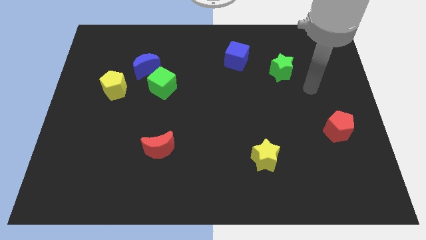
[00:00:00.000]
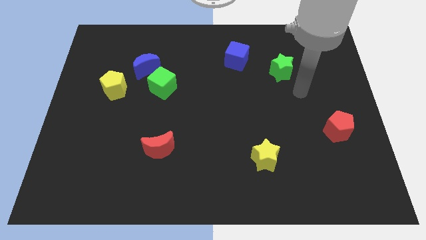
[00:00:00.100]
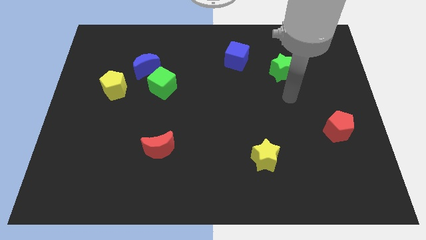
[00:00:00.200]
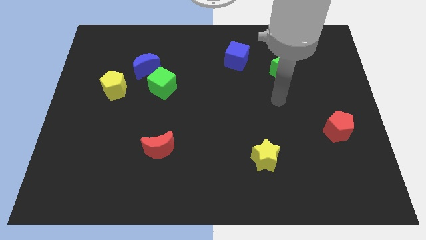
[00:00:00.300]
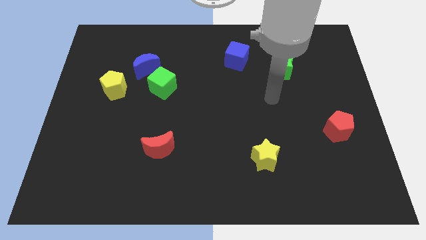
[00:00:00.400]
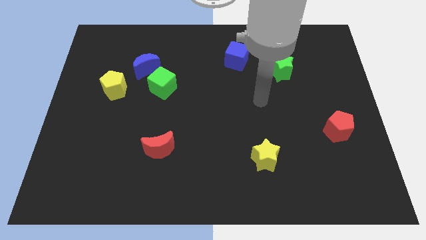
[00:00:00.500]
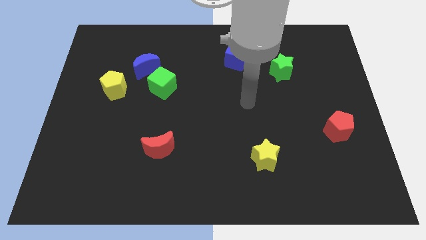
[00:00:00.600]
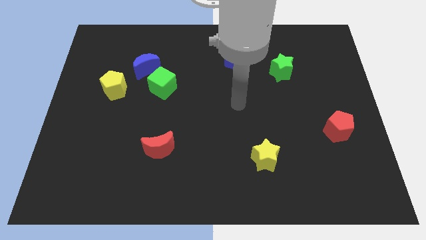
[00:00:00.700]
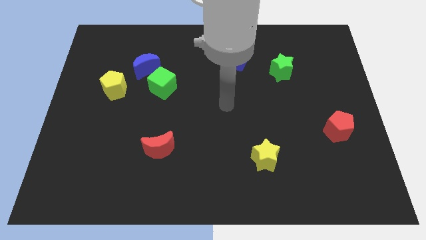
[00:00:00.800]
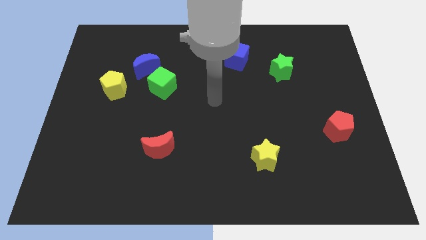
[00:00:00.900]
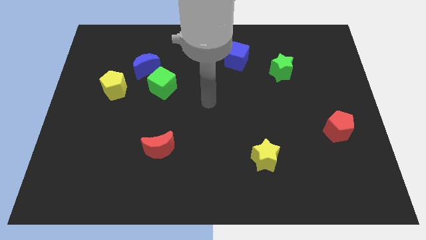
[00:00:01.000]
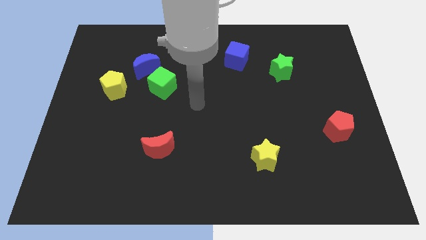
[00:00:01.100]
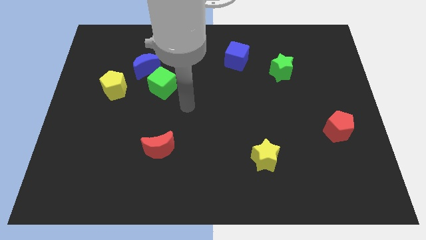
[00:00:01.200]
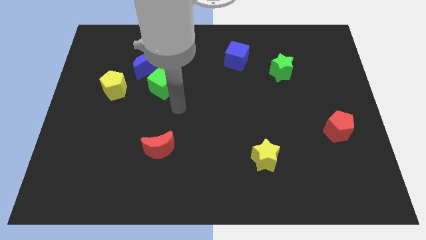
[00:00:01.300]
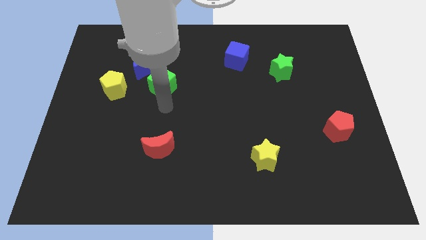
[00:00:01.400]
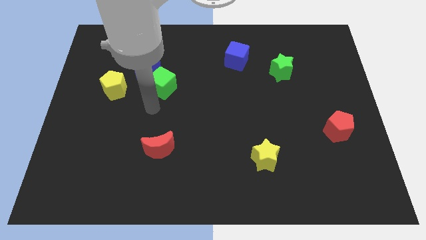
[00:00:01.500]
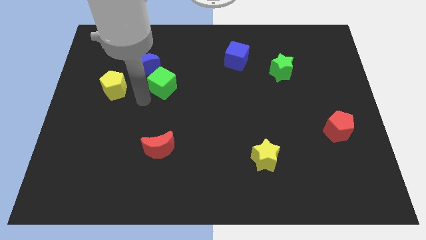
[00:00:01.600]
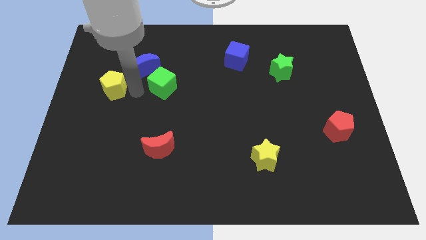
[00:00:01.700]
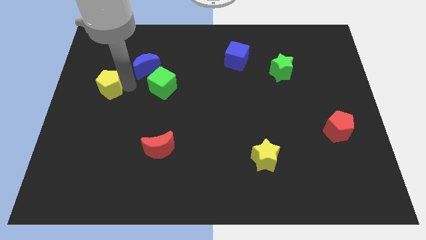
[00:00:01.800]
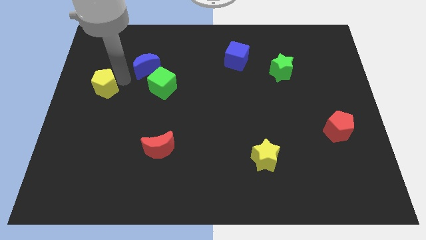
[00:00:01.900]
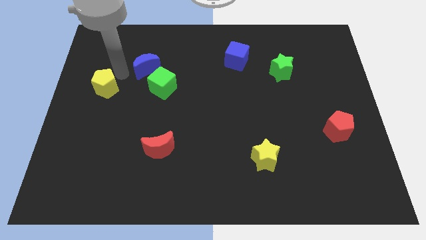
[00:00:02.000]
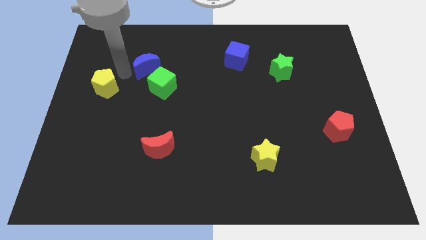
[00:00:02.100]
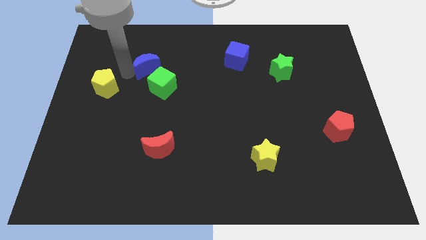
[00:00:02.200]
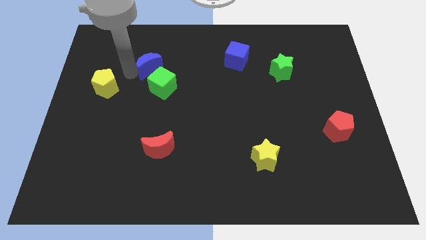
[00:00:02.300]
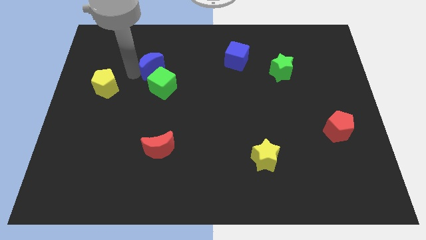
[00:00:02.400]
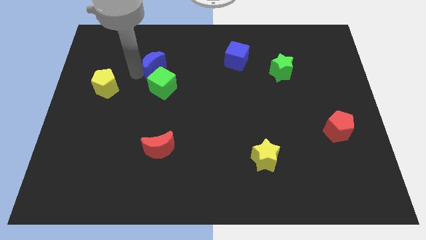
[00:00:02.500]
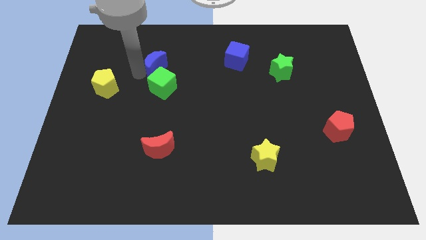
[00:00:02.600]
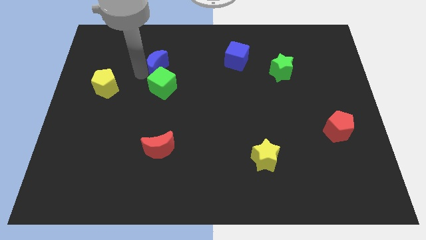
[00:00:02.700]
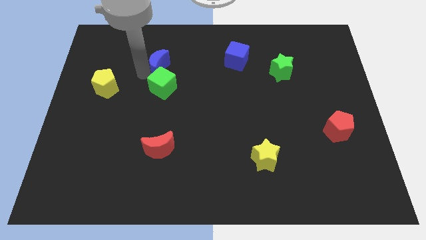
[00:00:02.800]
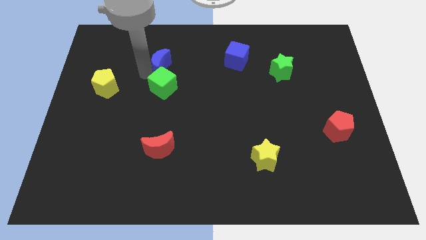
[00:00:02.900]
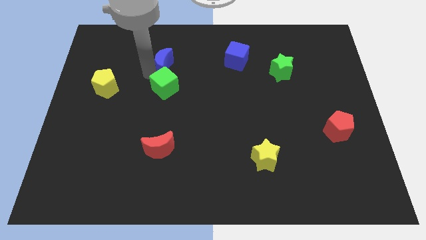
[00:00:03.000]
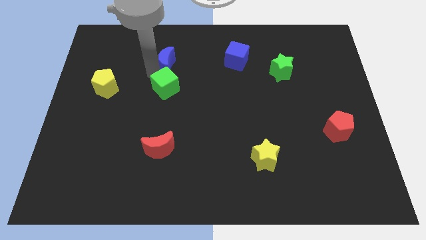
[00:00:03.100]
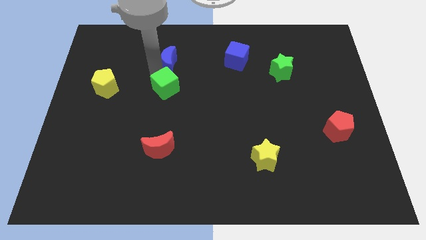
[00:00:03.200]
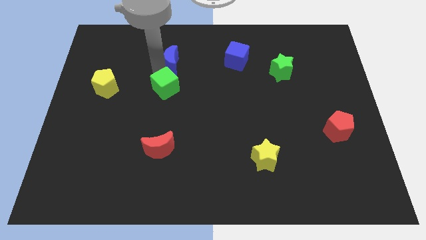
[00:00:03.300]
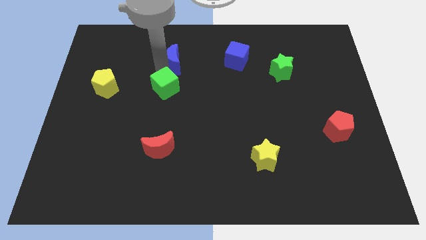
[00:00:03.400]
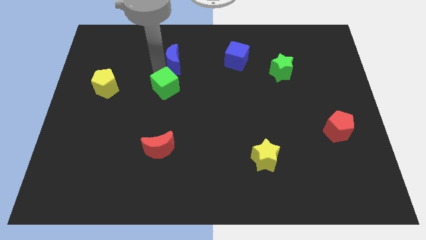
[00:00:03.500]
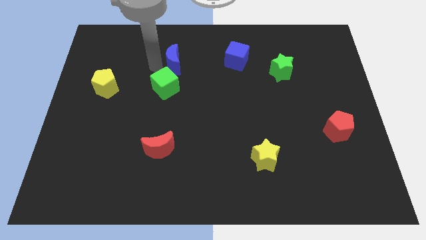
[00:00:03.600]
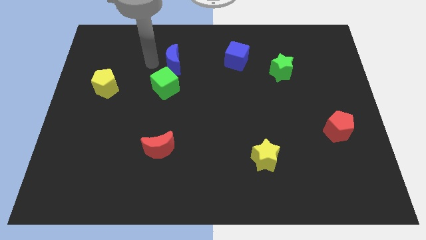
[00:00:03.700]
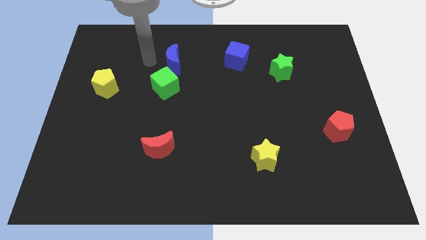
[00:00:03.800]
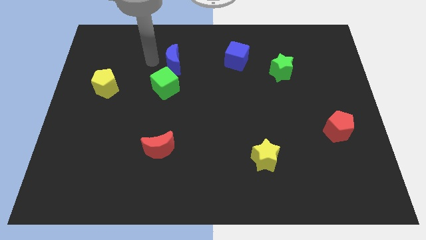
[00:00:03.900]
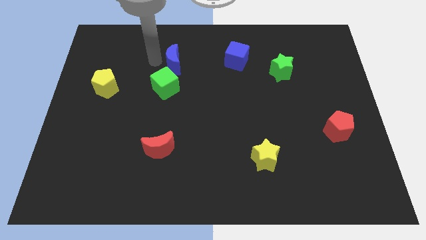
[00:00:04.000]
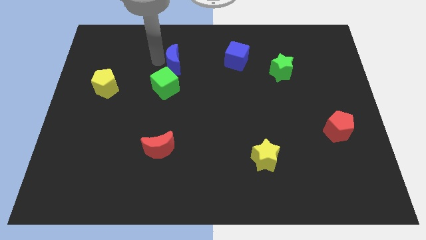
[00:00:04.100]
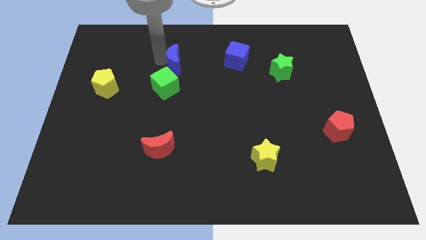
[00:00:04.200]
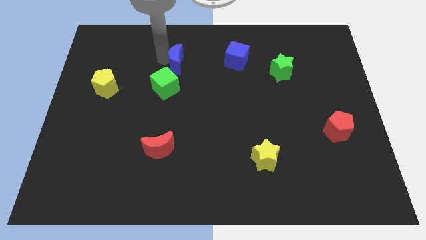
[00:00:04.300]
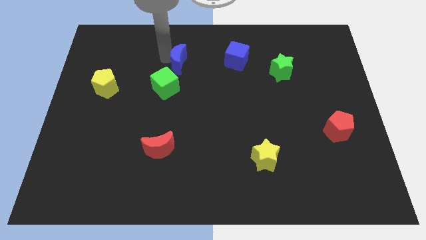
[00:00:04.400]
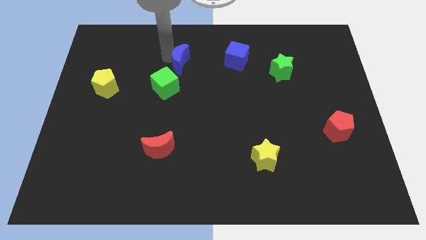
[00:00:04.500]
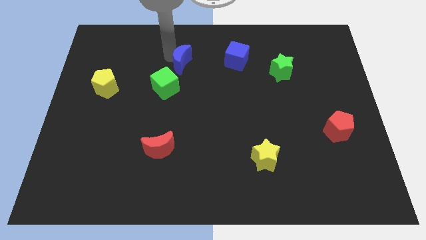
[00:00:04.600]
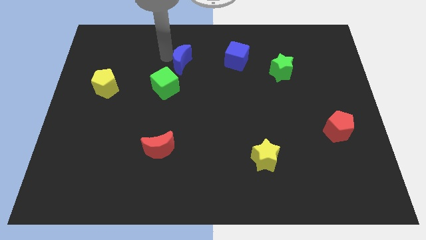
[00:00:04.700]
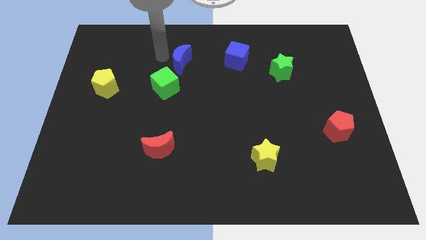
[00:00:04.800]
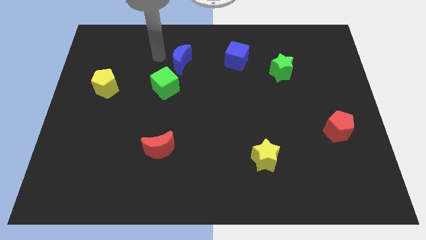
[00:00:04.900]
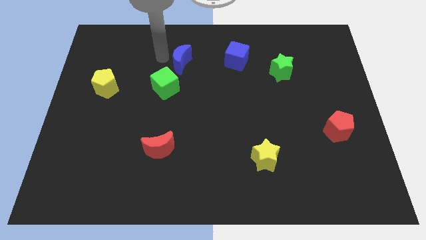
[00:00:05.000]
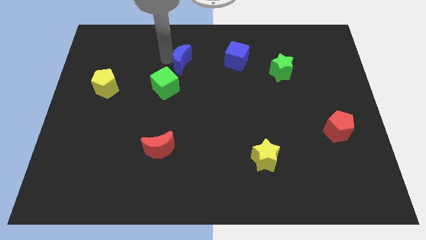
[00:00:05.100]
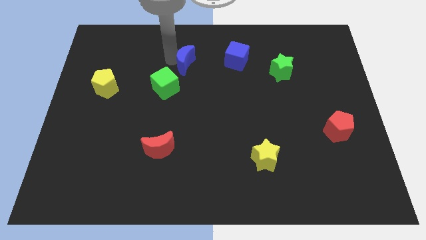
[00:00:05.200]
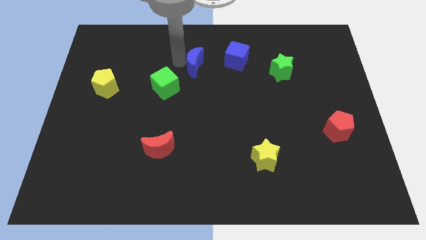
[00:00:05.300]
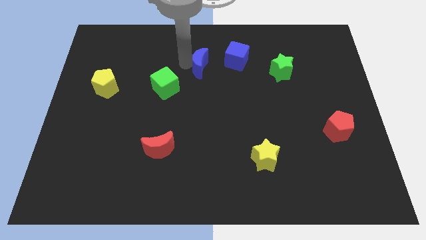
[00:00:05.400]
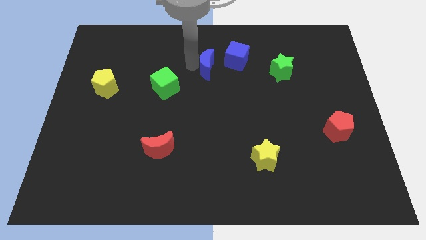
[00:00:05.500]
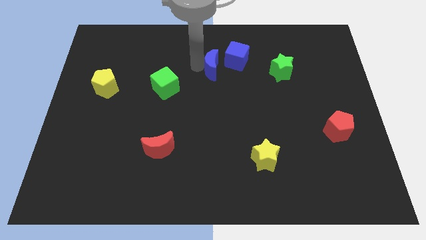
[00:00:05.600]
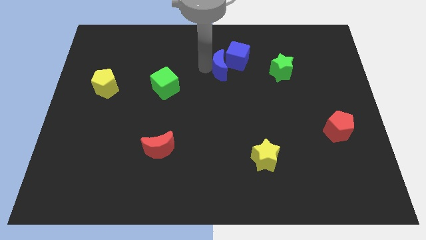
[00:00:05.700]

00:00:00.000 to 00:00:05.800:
put the blue moon left of the green star

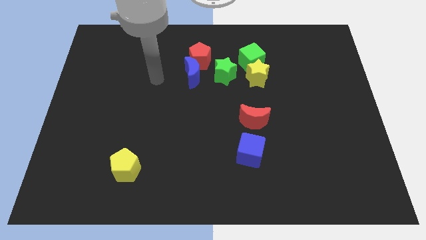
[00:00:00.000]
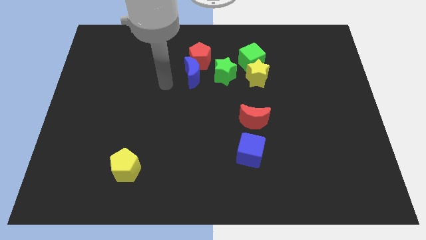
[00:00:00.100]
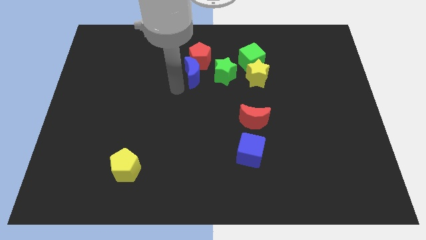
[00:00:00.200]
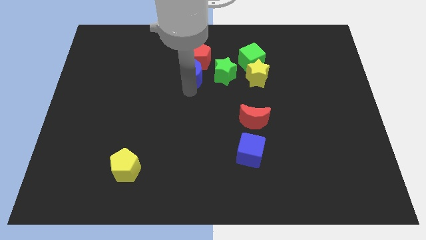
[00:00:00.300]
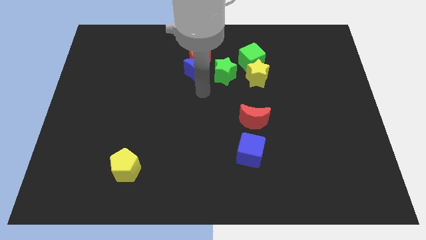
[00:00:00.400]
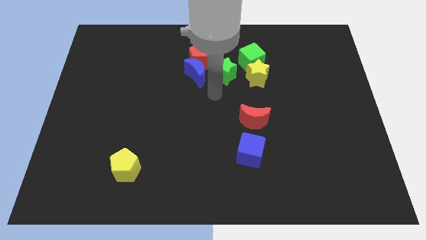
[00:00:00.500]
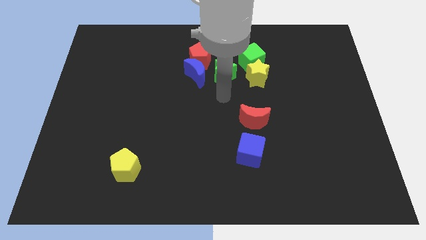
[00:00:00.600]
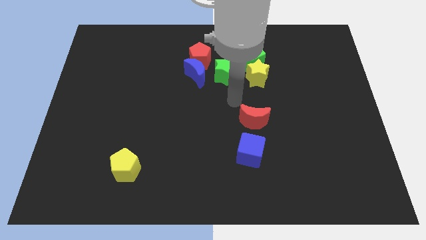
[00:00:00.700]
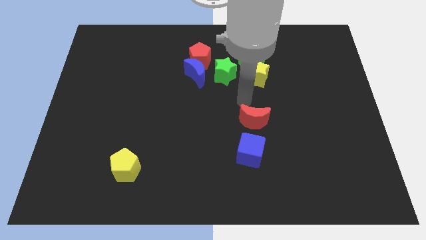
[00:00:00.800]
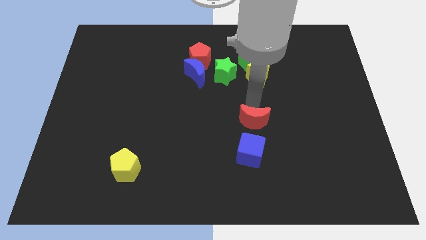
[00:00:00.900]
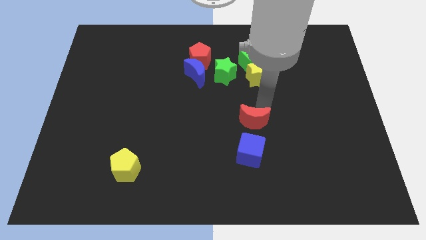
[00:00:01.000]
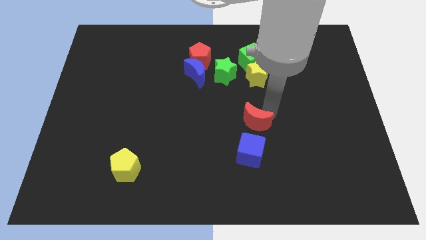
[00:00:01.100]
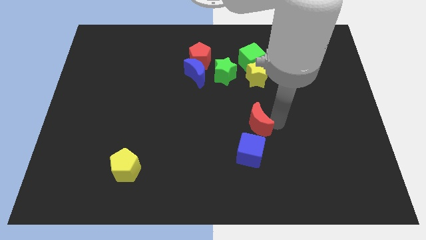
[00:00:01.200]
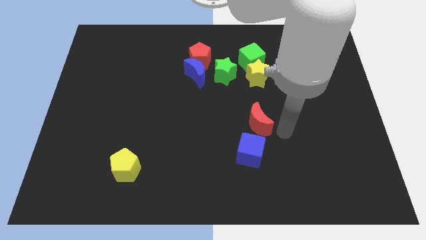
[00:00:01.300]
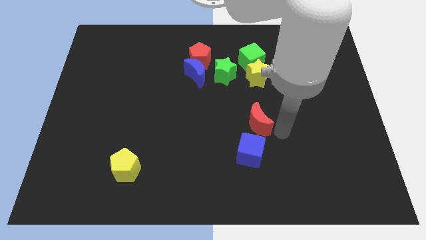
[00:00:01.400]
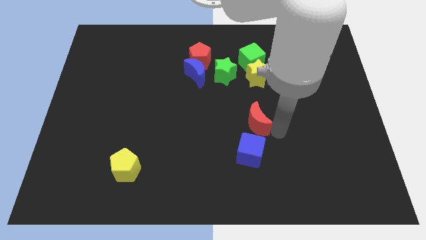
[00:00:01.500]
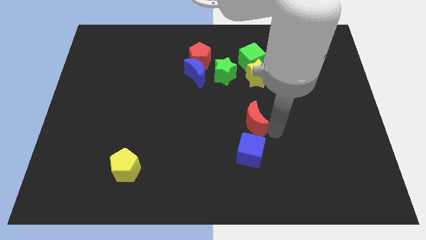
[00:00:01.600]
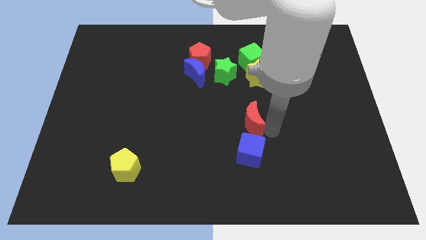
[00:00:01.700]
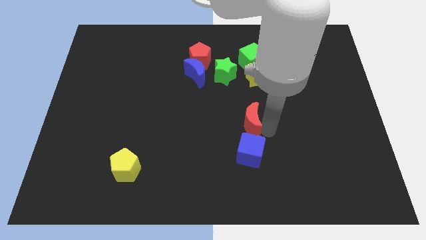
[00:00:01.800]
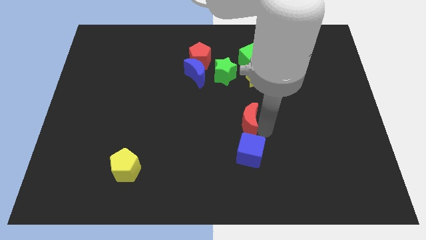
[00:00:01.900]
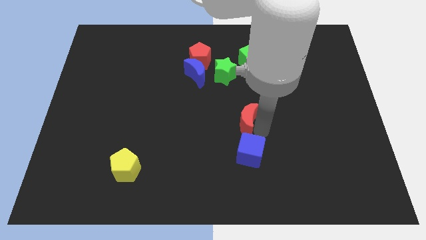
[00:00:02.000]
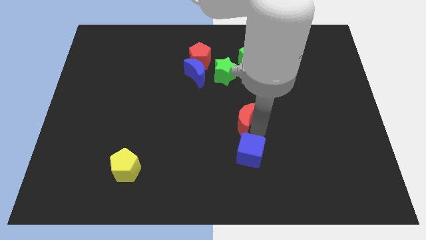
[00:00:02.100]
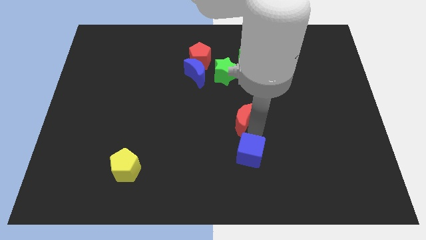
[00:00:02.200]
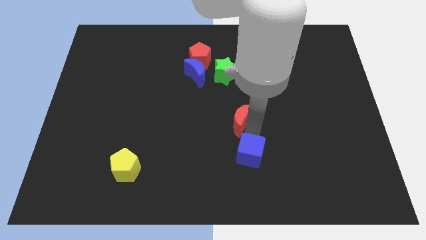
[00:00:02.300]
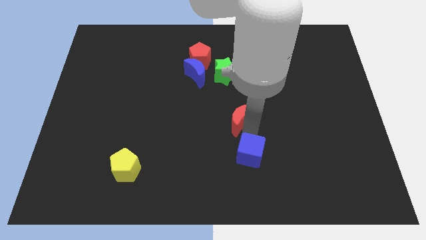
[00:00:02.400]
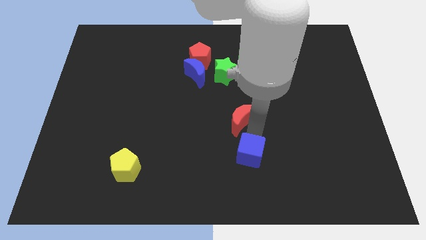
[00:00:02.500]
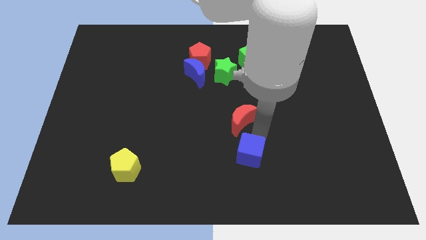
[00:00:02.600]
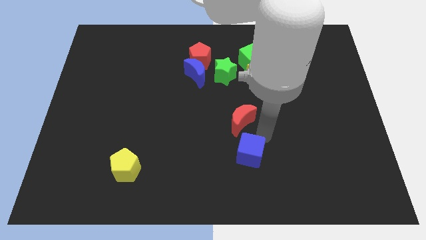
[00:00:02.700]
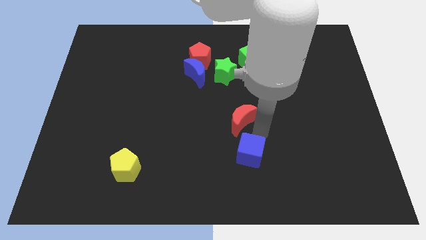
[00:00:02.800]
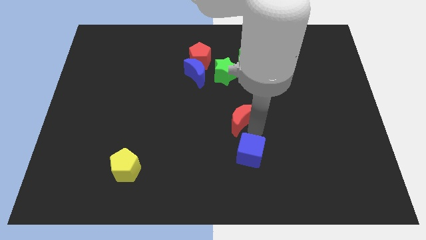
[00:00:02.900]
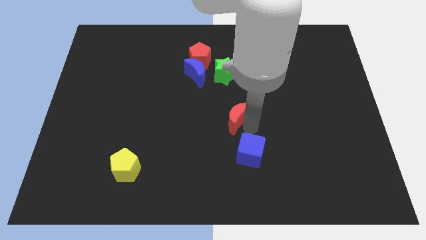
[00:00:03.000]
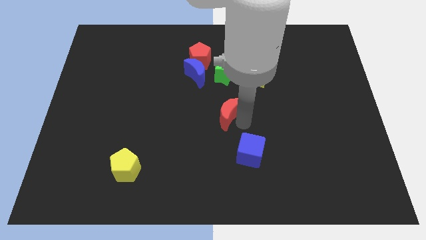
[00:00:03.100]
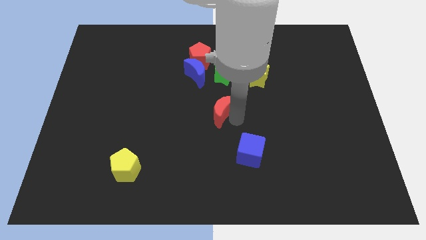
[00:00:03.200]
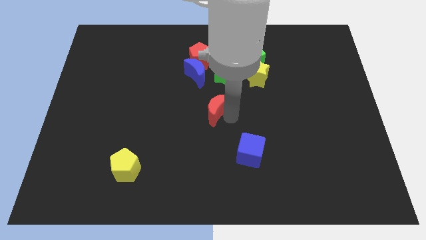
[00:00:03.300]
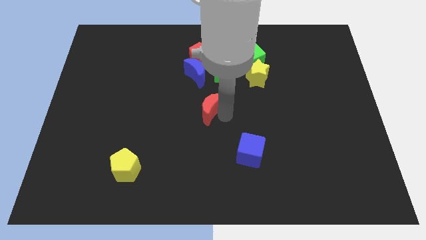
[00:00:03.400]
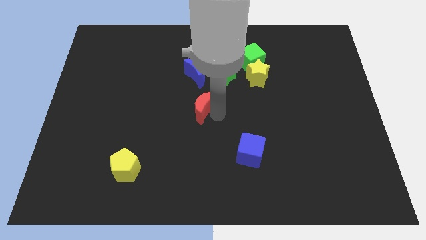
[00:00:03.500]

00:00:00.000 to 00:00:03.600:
push the red moon below the red pentagon
